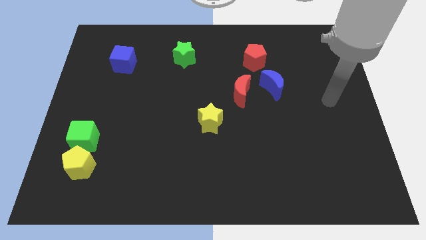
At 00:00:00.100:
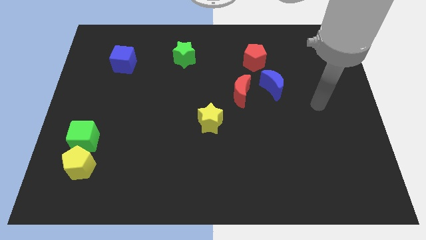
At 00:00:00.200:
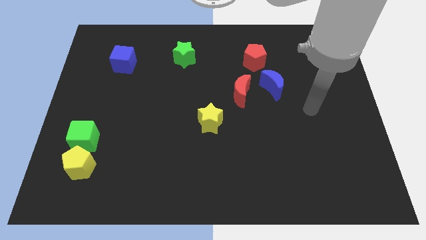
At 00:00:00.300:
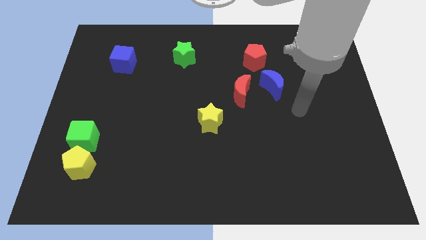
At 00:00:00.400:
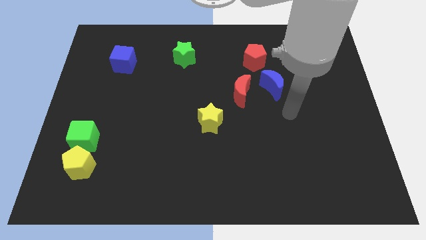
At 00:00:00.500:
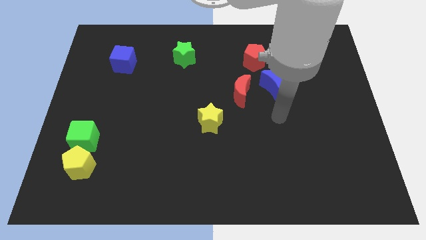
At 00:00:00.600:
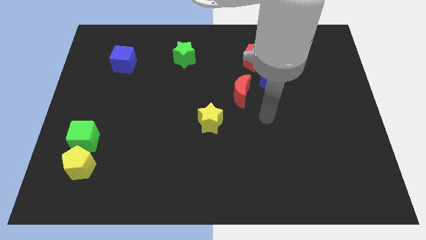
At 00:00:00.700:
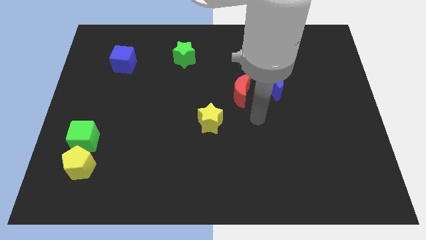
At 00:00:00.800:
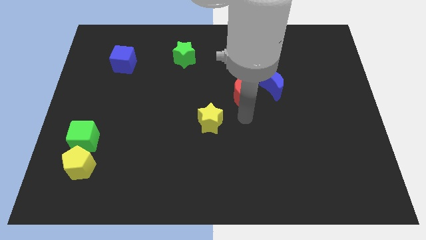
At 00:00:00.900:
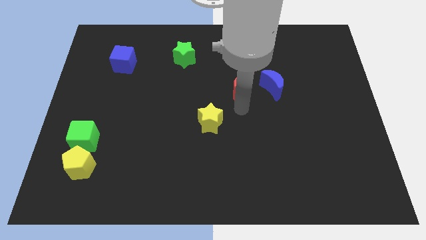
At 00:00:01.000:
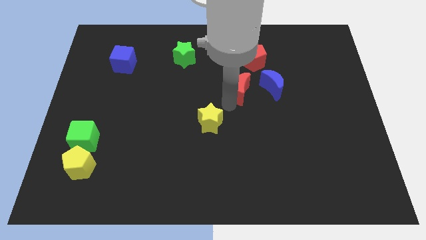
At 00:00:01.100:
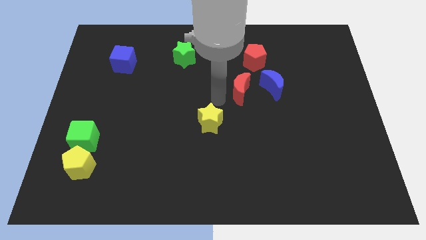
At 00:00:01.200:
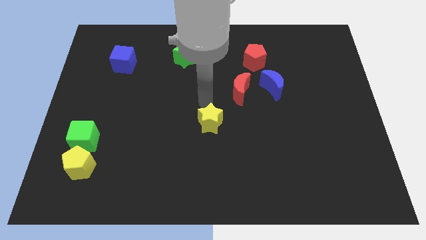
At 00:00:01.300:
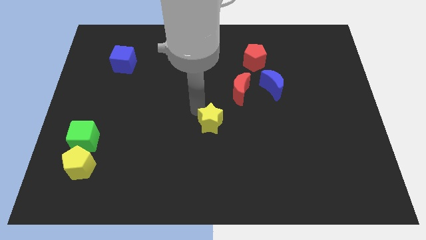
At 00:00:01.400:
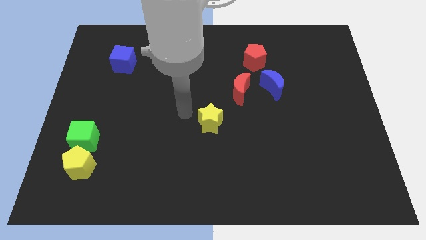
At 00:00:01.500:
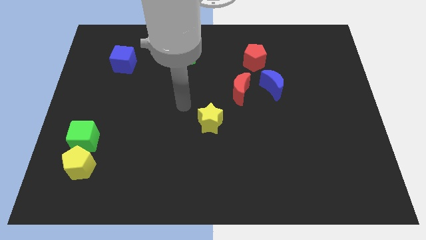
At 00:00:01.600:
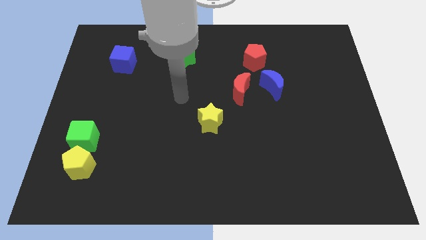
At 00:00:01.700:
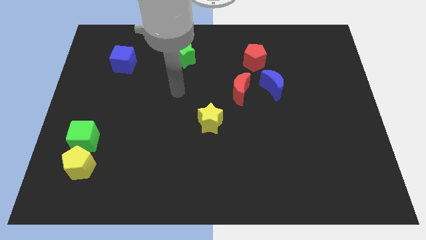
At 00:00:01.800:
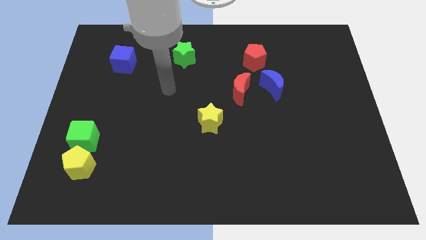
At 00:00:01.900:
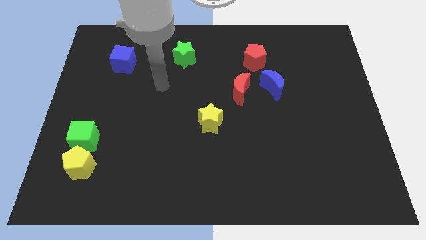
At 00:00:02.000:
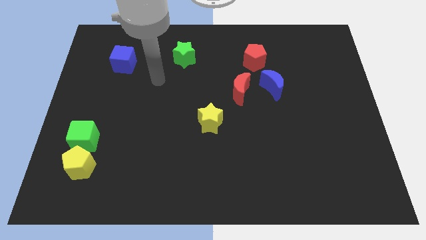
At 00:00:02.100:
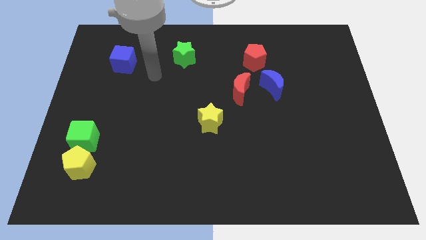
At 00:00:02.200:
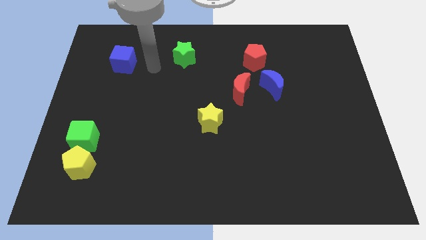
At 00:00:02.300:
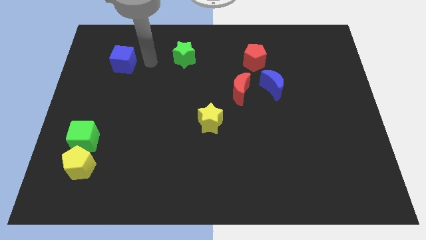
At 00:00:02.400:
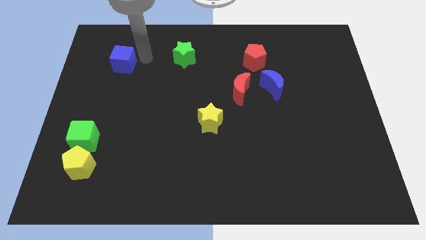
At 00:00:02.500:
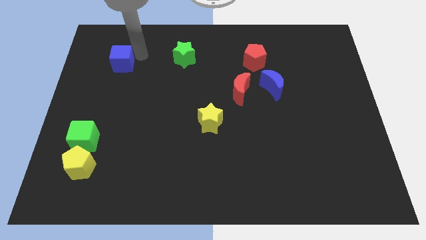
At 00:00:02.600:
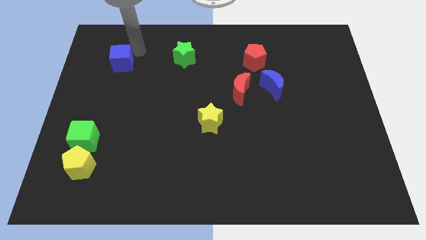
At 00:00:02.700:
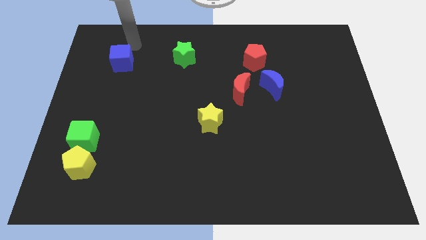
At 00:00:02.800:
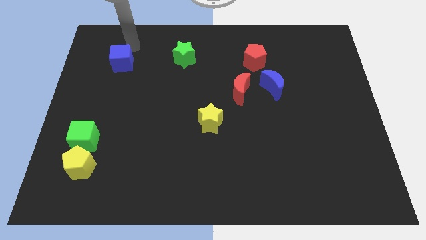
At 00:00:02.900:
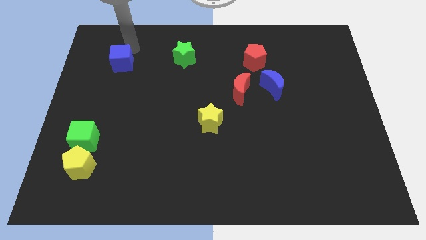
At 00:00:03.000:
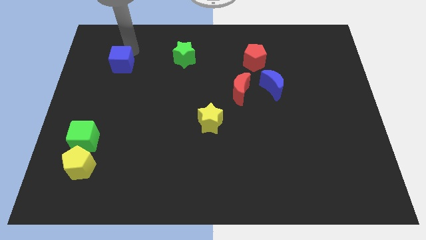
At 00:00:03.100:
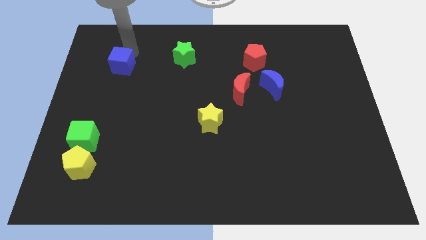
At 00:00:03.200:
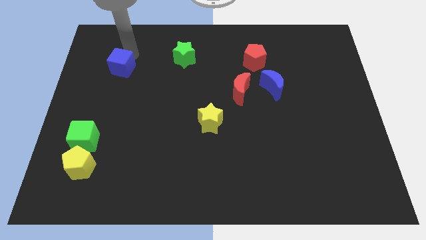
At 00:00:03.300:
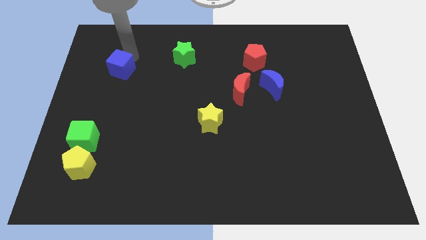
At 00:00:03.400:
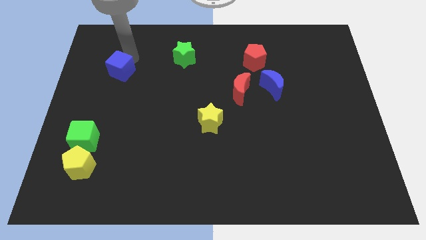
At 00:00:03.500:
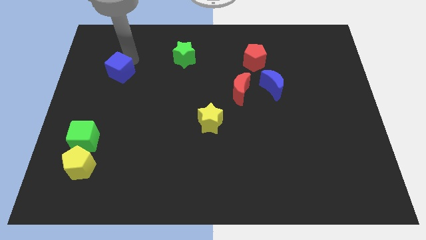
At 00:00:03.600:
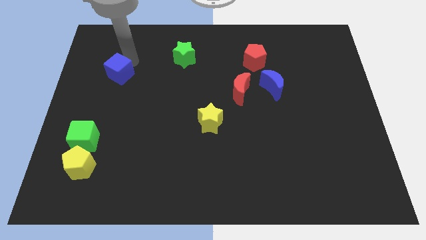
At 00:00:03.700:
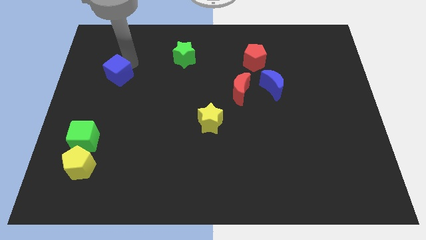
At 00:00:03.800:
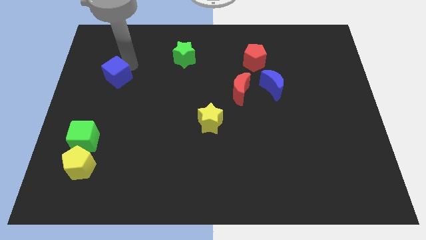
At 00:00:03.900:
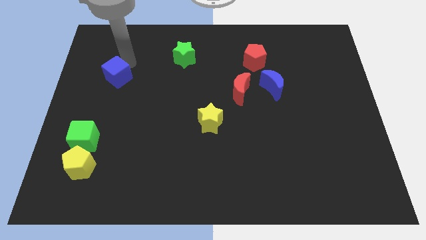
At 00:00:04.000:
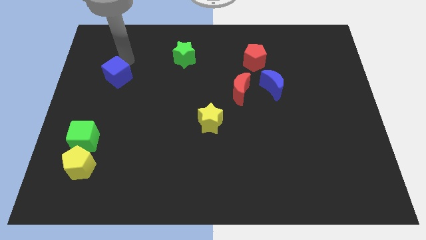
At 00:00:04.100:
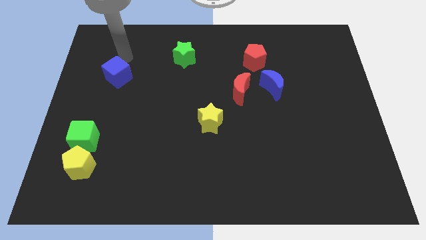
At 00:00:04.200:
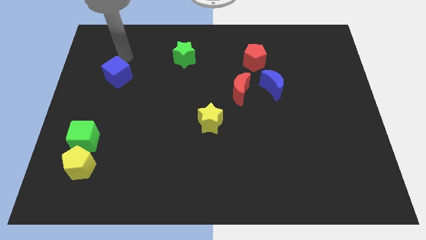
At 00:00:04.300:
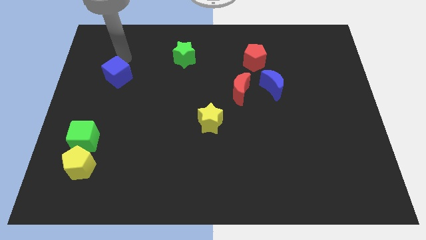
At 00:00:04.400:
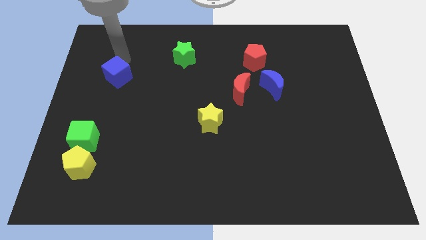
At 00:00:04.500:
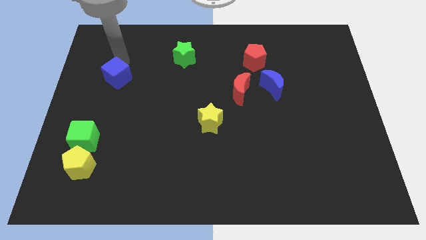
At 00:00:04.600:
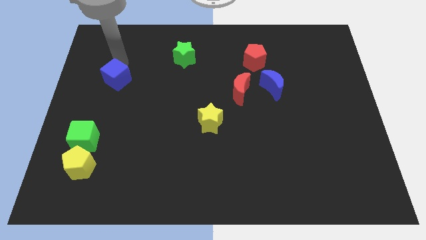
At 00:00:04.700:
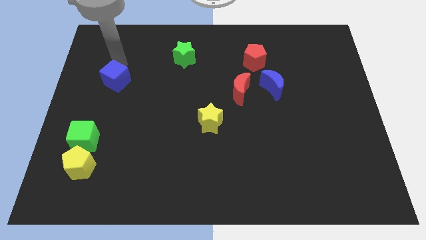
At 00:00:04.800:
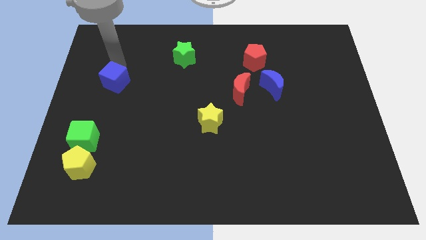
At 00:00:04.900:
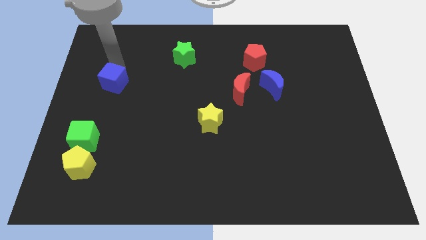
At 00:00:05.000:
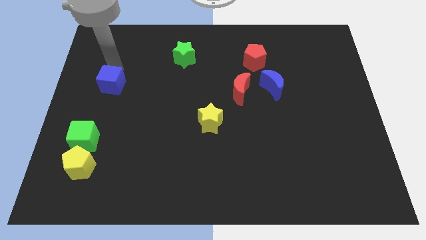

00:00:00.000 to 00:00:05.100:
slightly push the blue cube down

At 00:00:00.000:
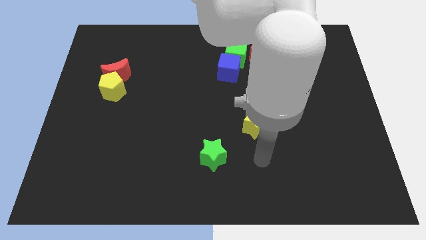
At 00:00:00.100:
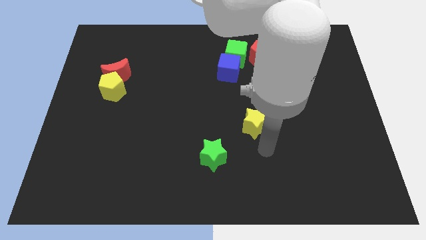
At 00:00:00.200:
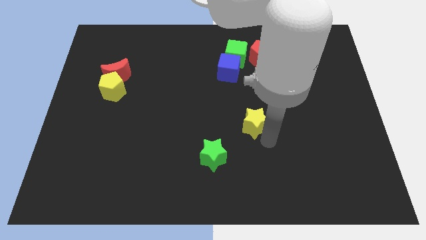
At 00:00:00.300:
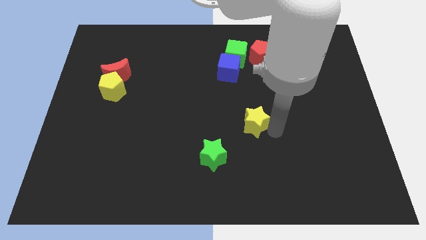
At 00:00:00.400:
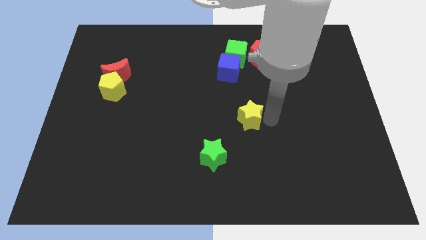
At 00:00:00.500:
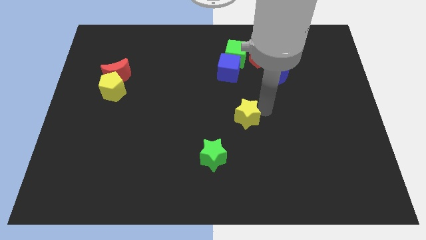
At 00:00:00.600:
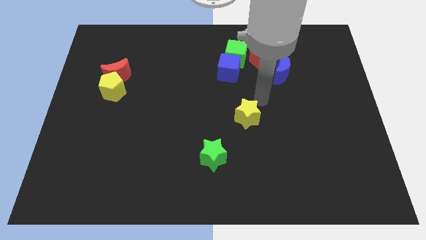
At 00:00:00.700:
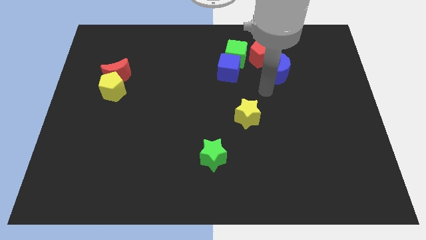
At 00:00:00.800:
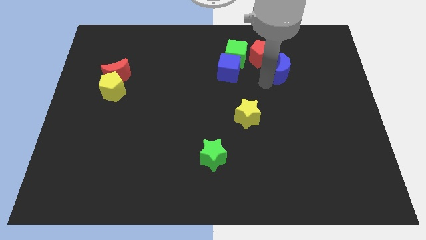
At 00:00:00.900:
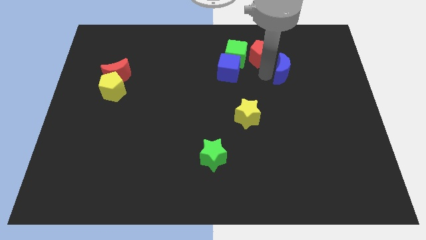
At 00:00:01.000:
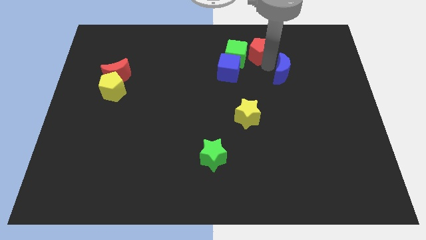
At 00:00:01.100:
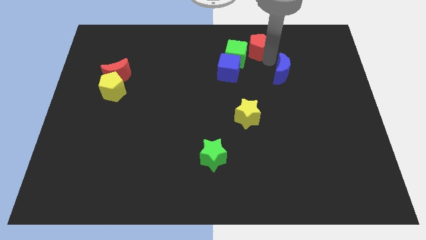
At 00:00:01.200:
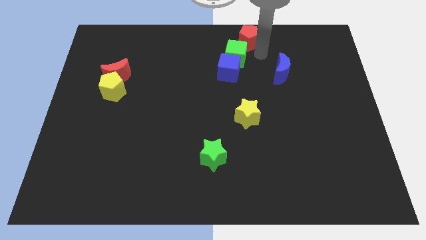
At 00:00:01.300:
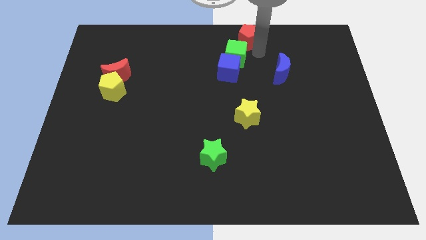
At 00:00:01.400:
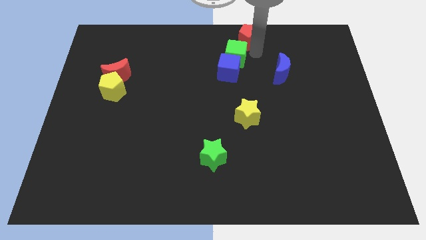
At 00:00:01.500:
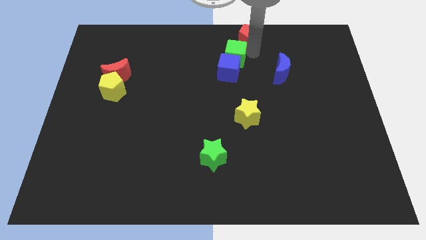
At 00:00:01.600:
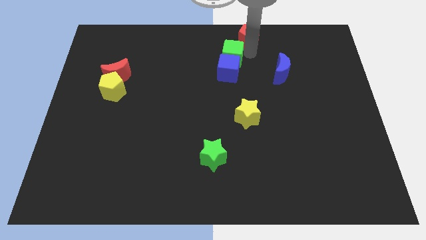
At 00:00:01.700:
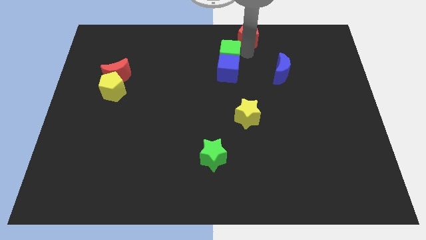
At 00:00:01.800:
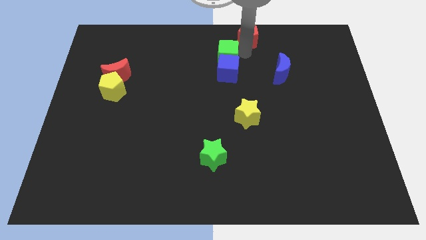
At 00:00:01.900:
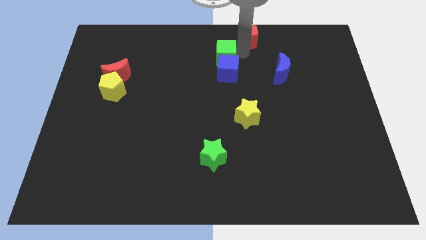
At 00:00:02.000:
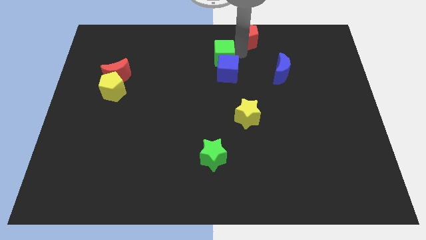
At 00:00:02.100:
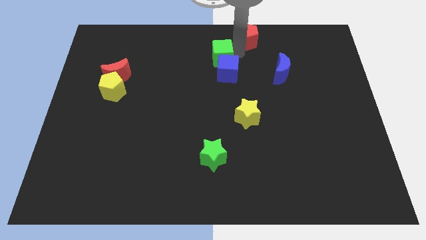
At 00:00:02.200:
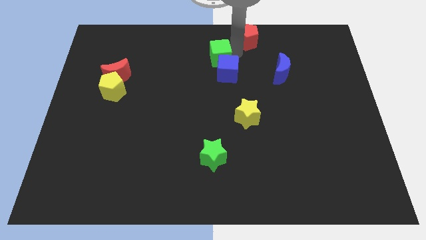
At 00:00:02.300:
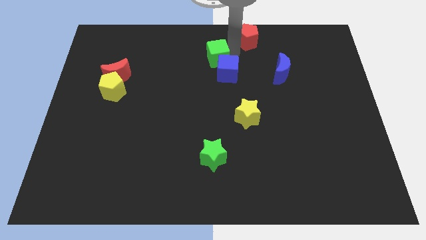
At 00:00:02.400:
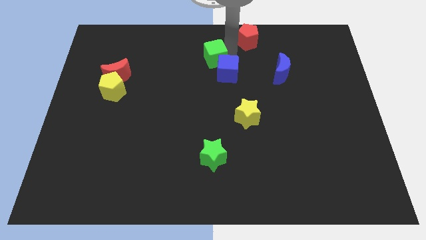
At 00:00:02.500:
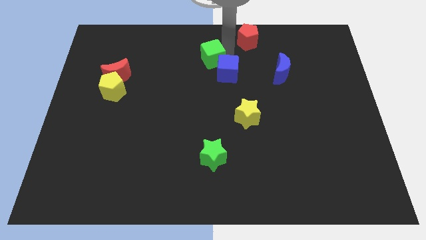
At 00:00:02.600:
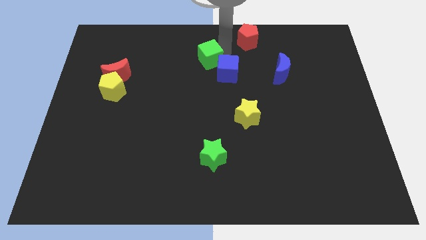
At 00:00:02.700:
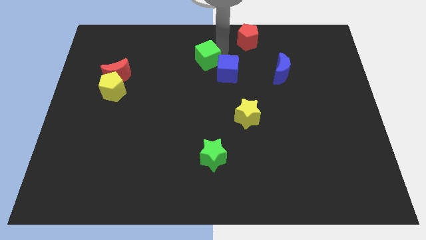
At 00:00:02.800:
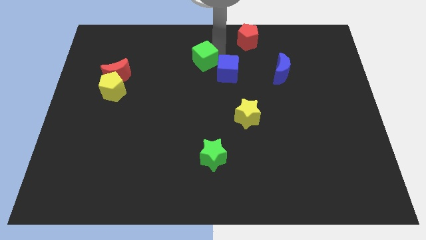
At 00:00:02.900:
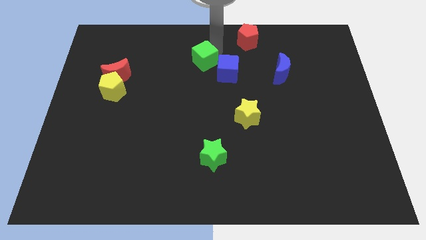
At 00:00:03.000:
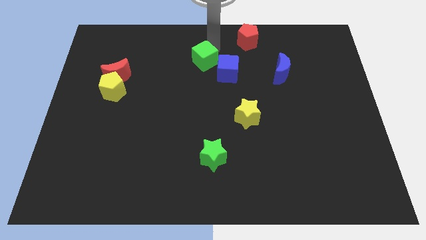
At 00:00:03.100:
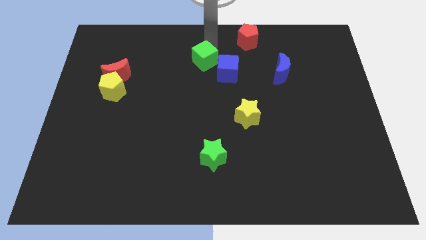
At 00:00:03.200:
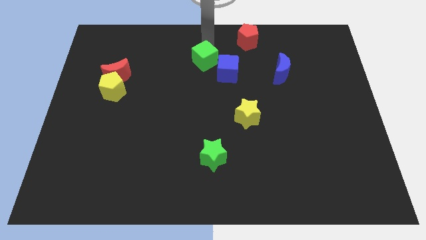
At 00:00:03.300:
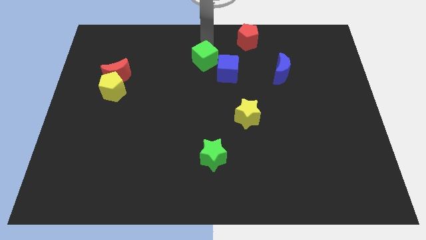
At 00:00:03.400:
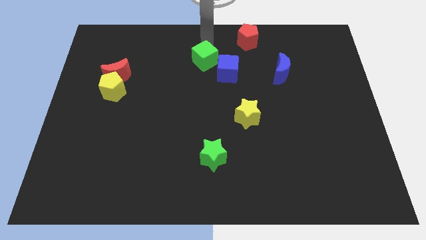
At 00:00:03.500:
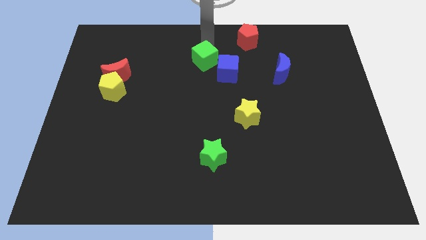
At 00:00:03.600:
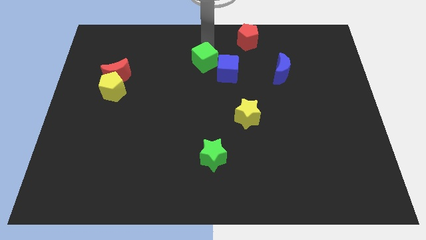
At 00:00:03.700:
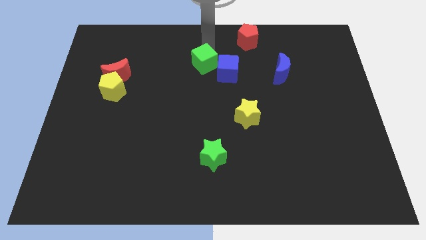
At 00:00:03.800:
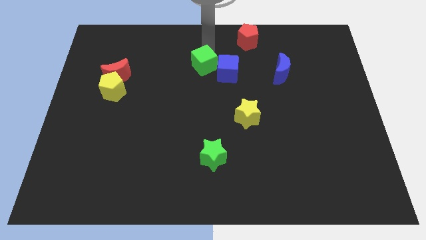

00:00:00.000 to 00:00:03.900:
slide the green cube downwards and to the left diagonally a little
